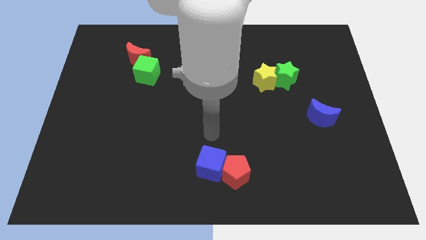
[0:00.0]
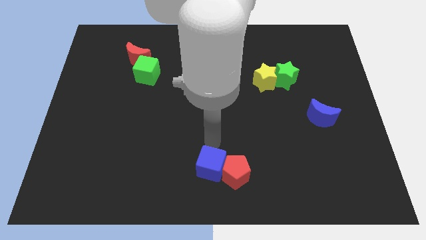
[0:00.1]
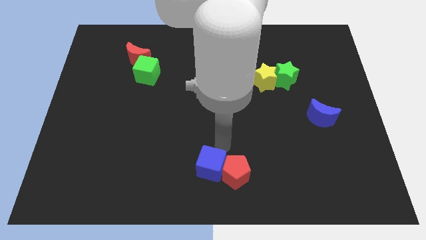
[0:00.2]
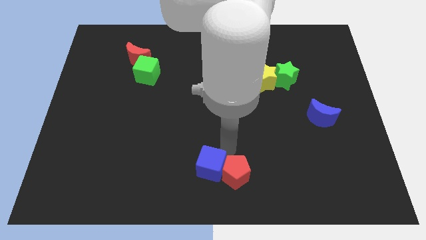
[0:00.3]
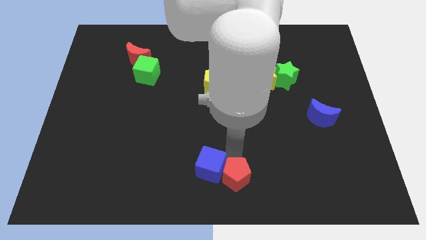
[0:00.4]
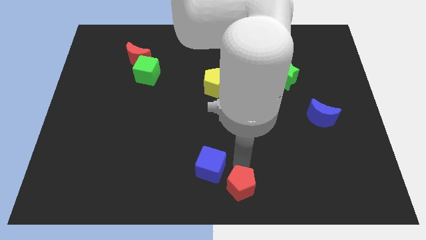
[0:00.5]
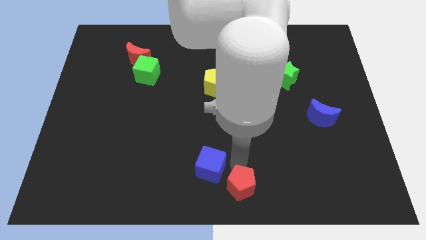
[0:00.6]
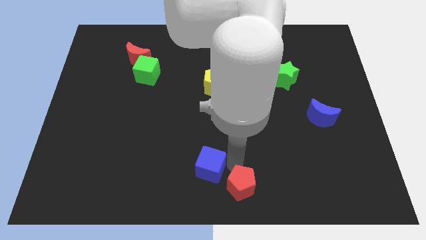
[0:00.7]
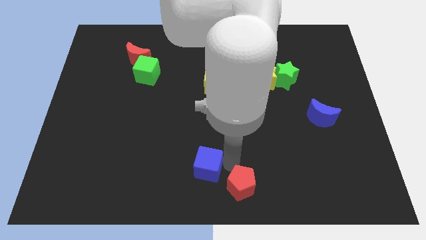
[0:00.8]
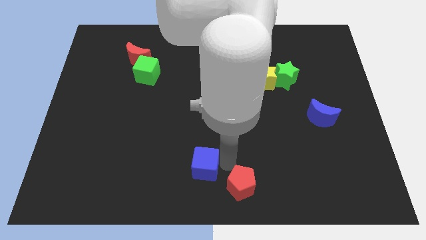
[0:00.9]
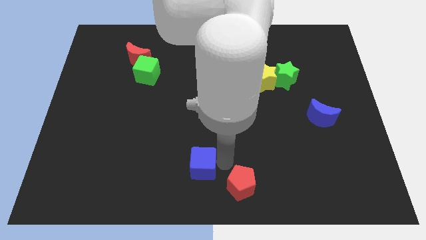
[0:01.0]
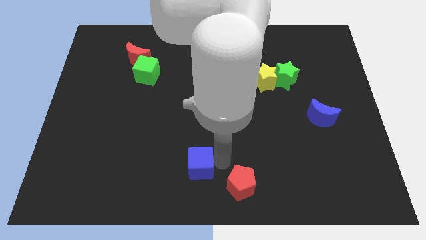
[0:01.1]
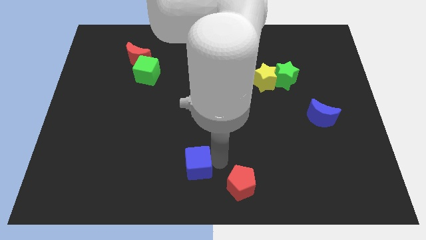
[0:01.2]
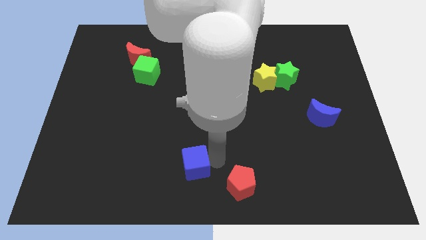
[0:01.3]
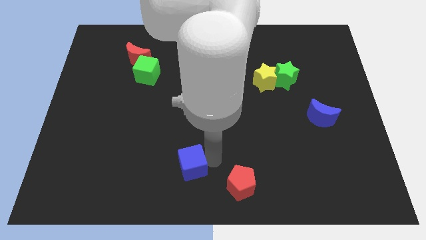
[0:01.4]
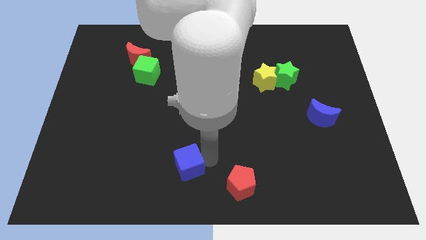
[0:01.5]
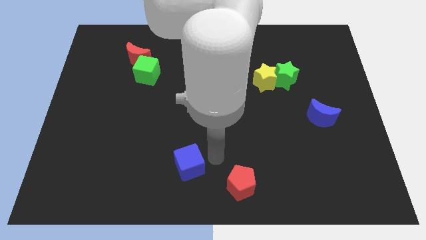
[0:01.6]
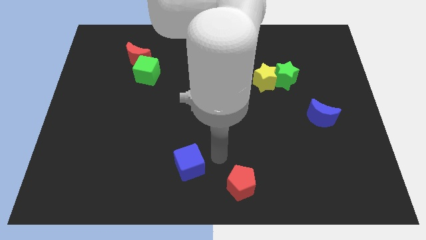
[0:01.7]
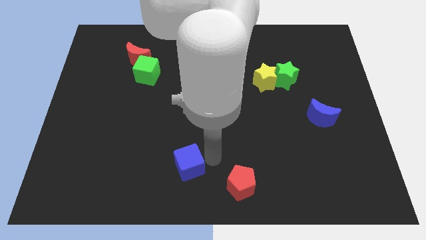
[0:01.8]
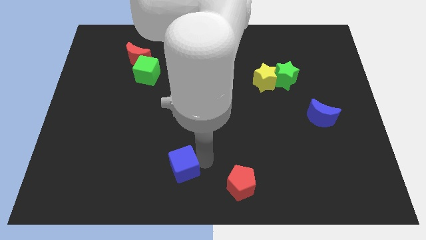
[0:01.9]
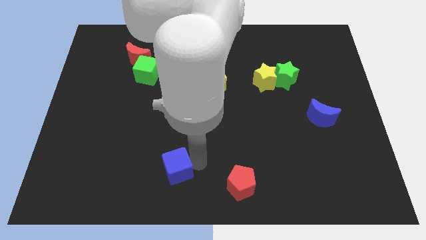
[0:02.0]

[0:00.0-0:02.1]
push the blue cube to the left slightly

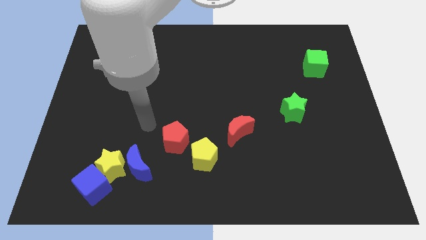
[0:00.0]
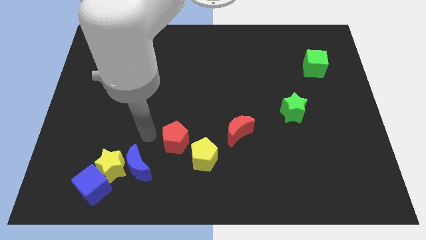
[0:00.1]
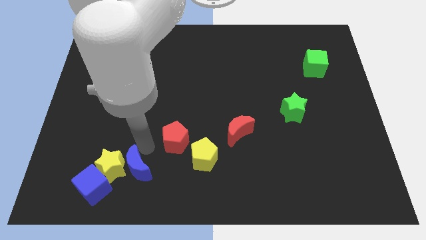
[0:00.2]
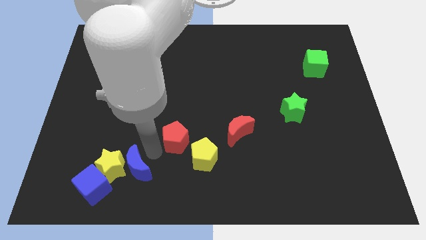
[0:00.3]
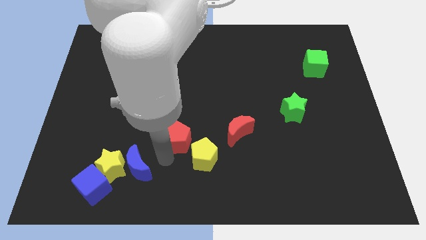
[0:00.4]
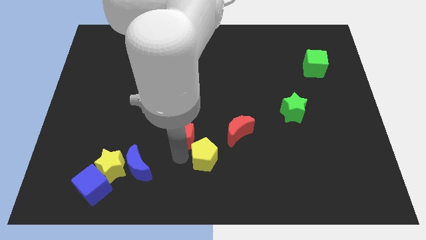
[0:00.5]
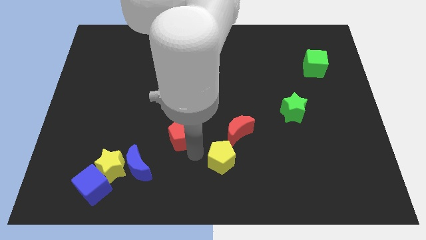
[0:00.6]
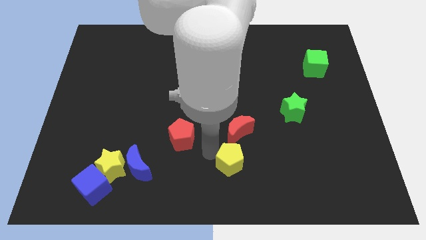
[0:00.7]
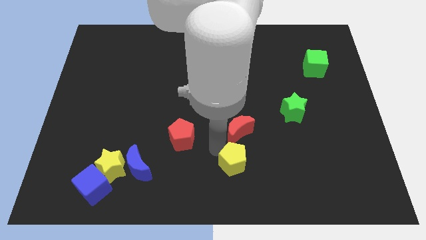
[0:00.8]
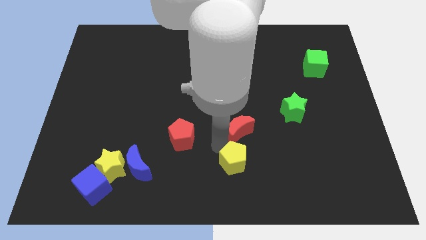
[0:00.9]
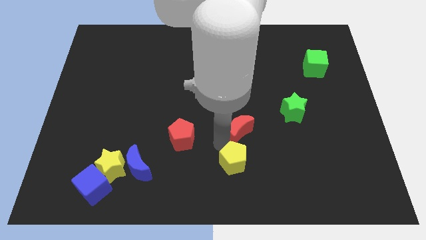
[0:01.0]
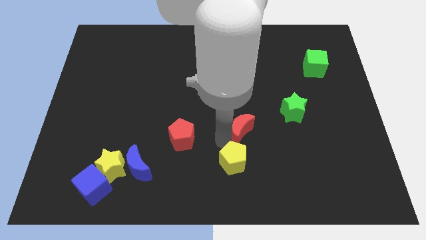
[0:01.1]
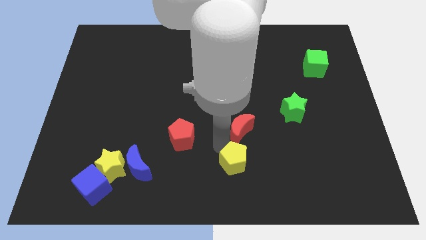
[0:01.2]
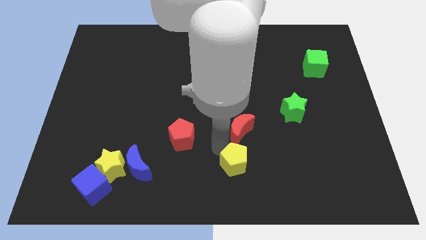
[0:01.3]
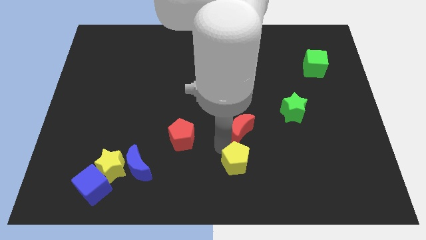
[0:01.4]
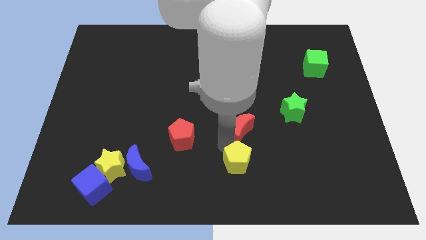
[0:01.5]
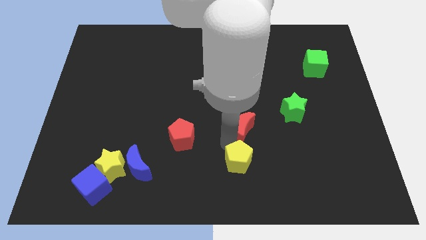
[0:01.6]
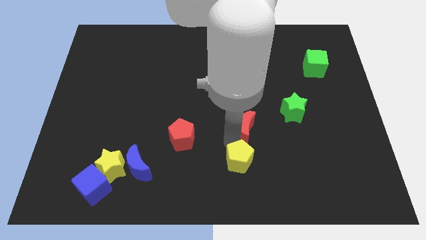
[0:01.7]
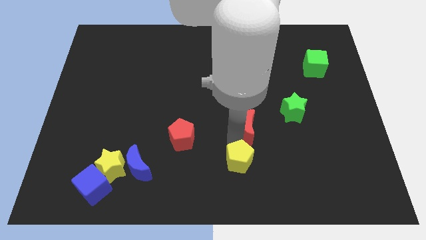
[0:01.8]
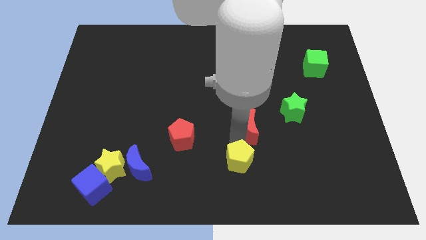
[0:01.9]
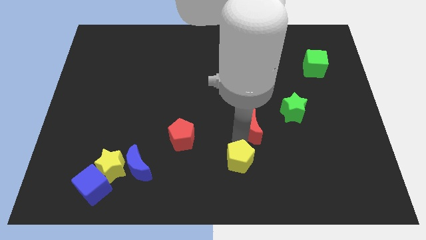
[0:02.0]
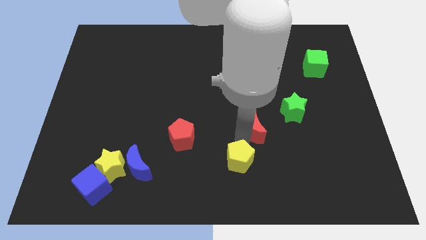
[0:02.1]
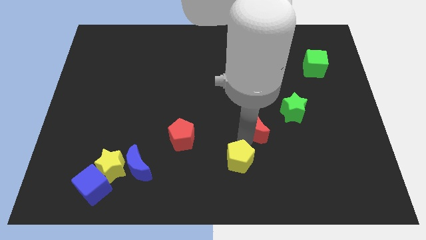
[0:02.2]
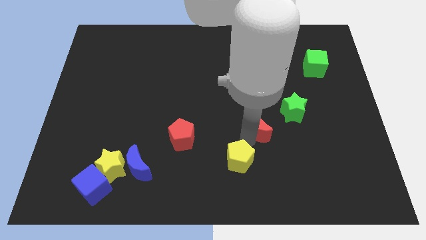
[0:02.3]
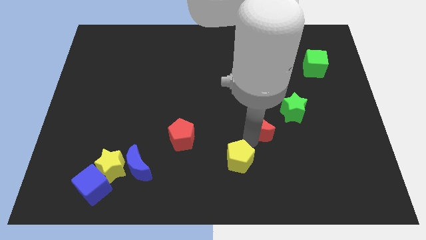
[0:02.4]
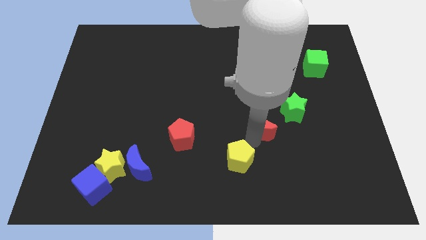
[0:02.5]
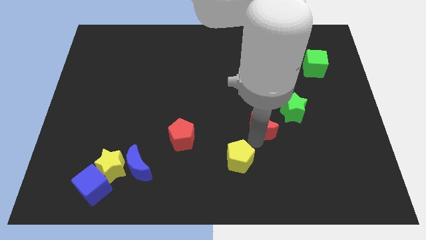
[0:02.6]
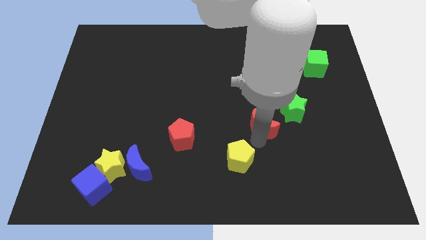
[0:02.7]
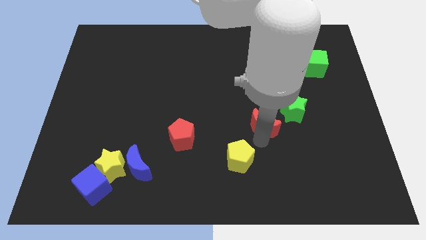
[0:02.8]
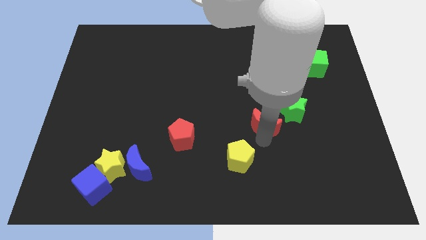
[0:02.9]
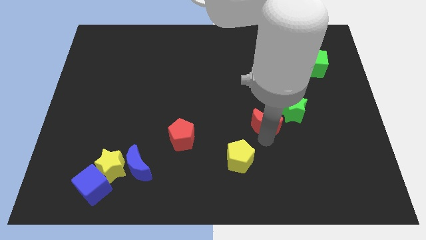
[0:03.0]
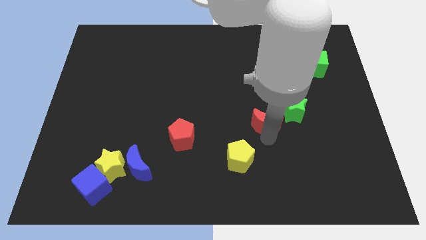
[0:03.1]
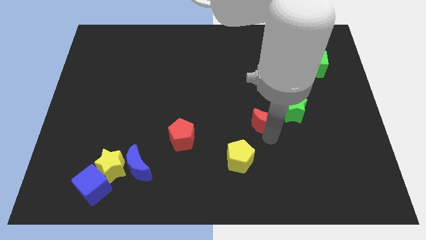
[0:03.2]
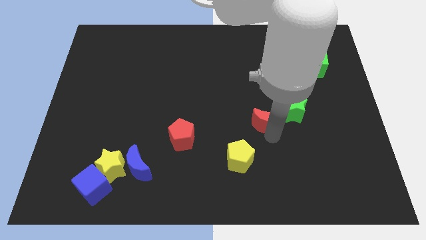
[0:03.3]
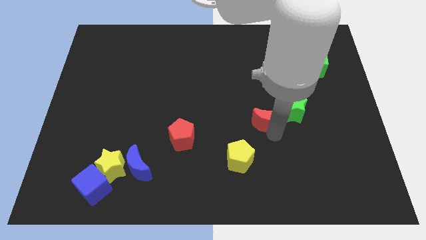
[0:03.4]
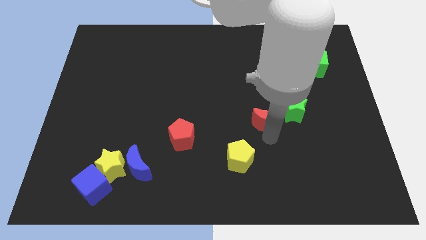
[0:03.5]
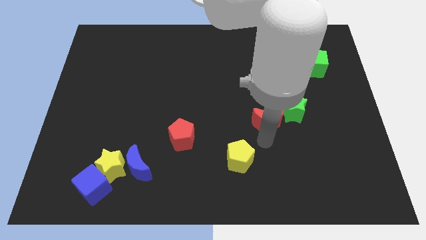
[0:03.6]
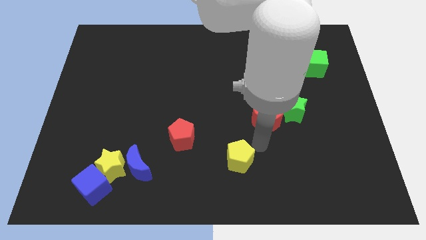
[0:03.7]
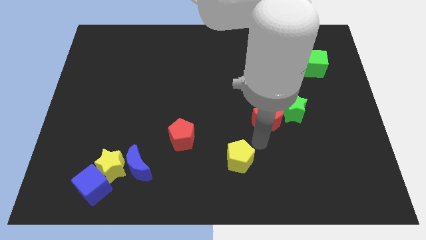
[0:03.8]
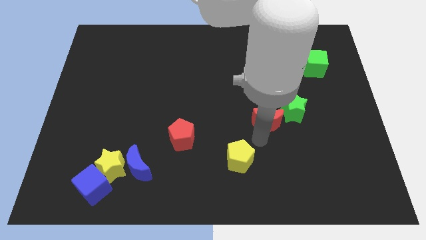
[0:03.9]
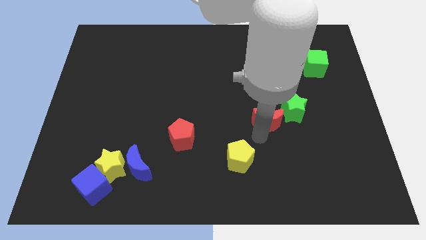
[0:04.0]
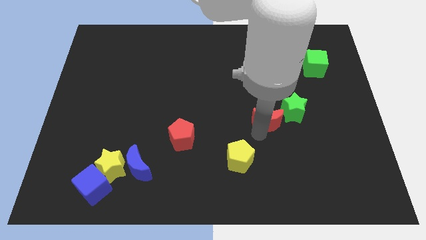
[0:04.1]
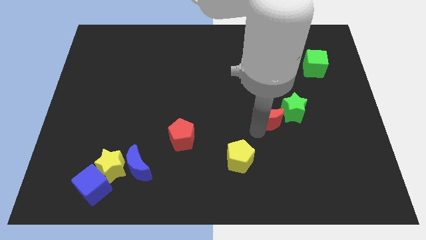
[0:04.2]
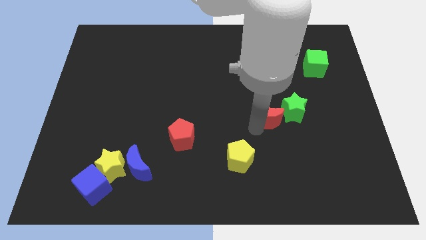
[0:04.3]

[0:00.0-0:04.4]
push the red moon a little bit diagonally up and right

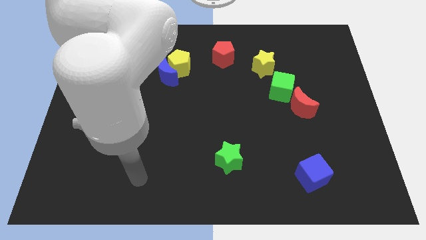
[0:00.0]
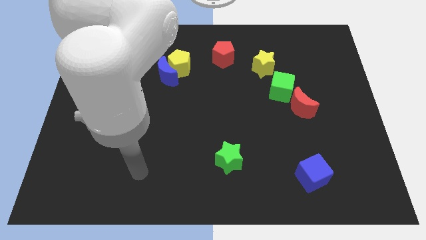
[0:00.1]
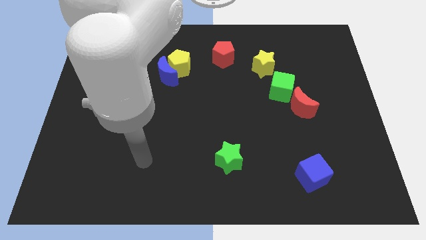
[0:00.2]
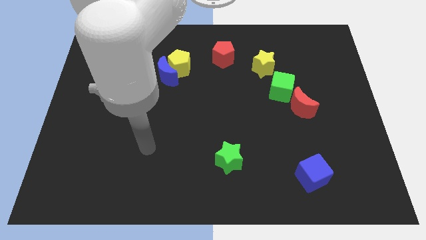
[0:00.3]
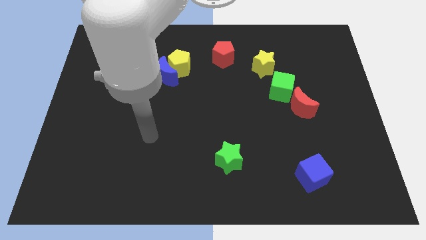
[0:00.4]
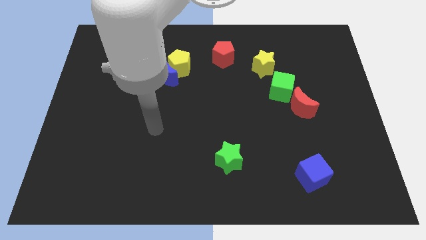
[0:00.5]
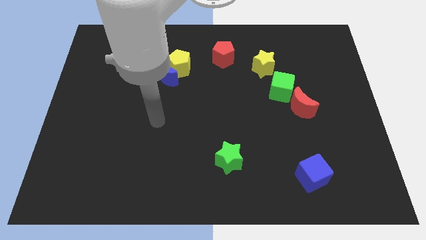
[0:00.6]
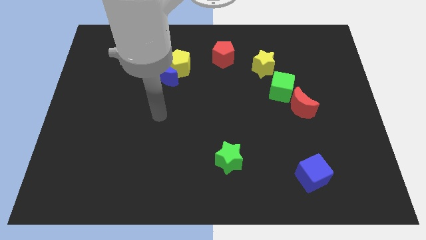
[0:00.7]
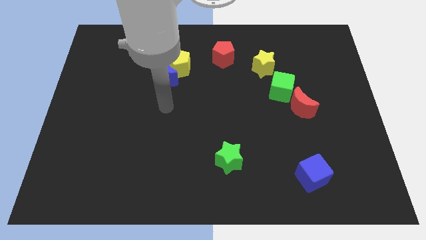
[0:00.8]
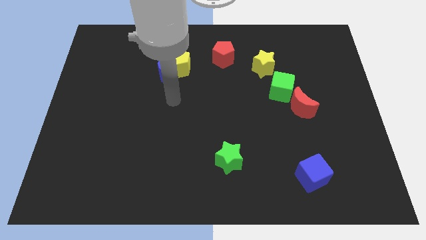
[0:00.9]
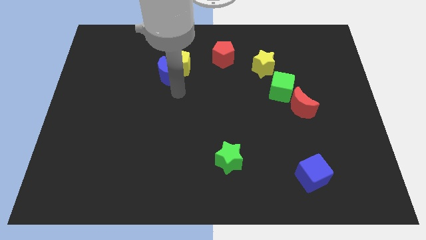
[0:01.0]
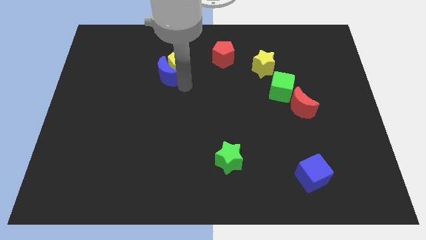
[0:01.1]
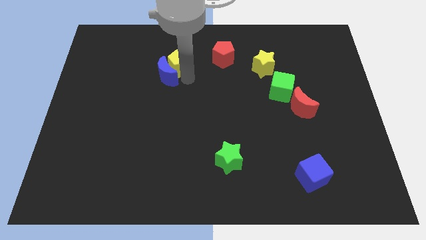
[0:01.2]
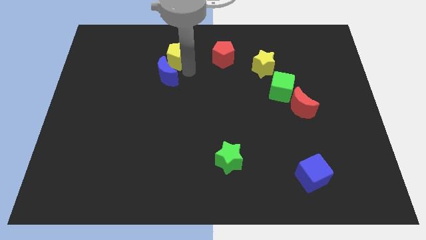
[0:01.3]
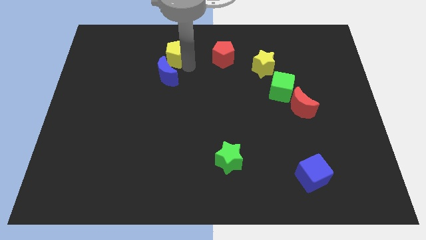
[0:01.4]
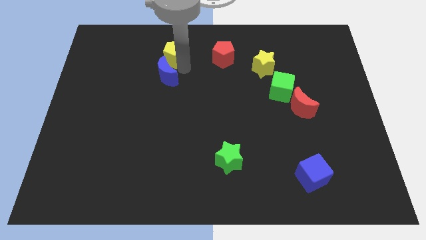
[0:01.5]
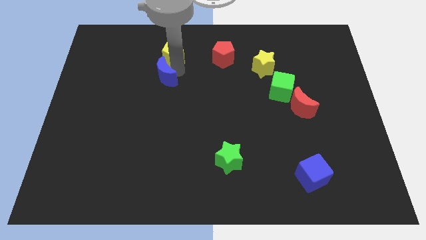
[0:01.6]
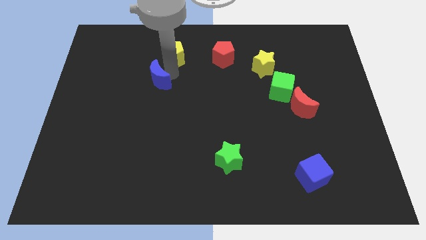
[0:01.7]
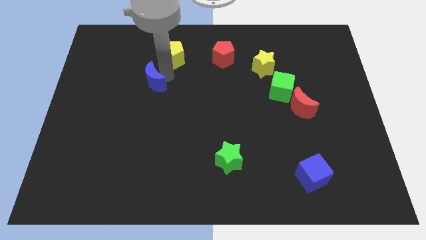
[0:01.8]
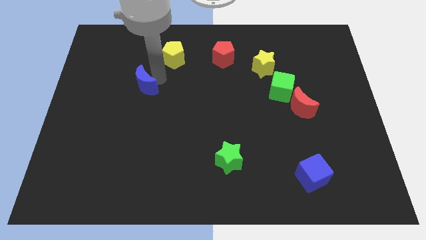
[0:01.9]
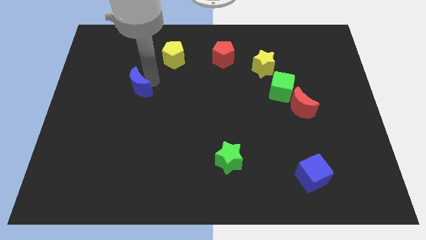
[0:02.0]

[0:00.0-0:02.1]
push the blue moon down and then left a little
